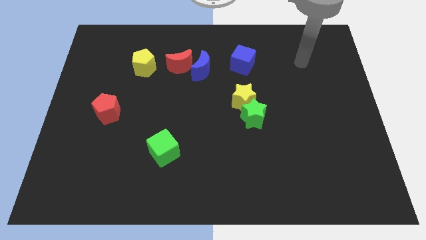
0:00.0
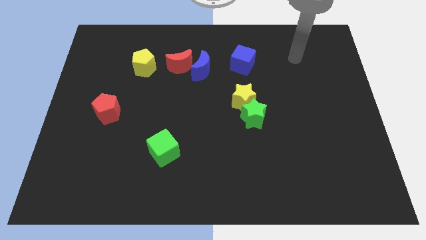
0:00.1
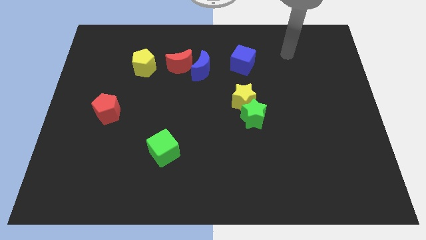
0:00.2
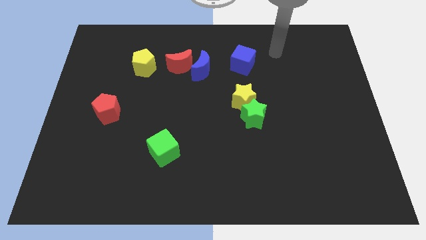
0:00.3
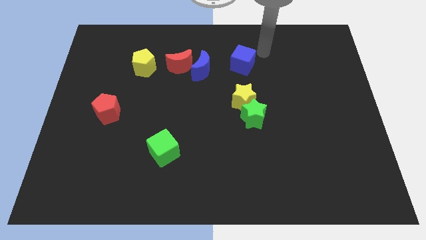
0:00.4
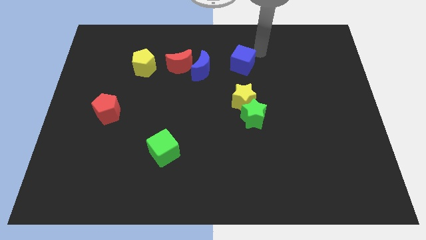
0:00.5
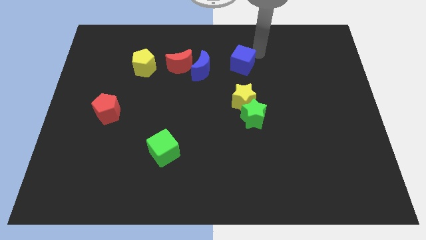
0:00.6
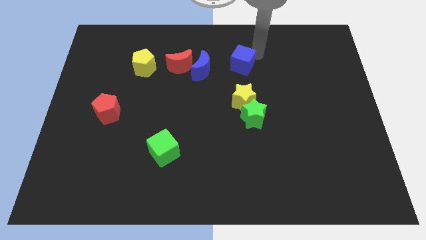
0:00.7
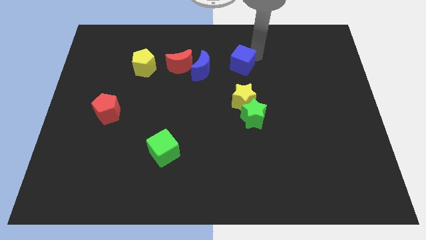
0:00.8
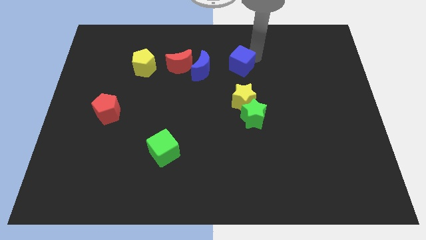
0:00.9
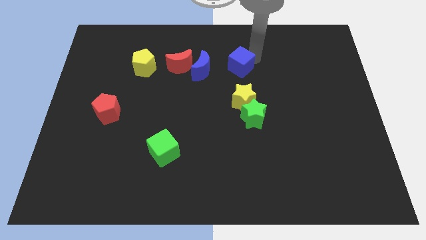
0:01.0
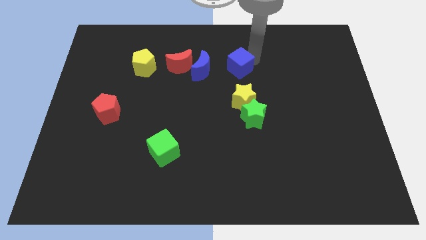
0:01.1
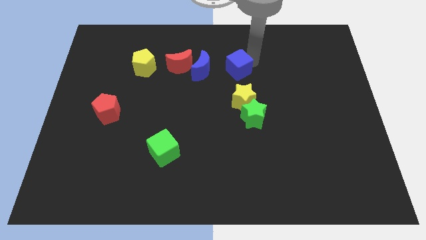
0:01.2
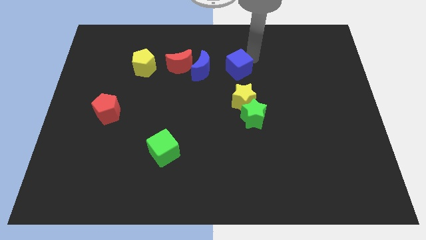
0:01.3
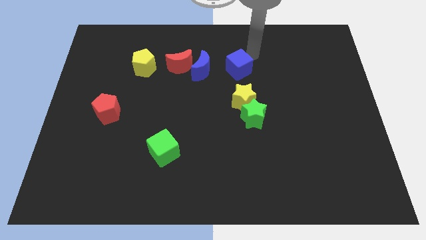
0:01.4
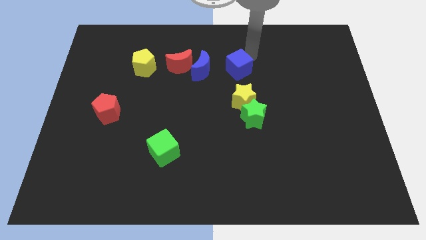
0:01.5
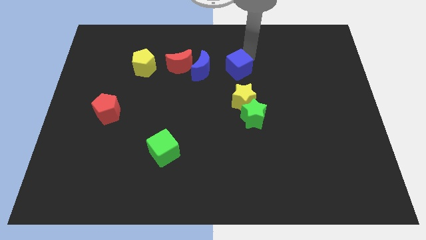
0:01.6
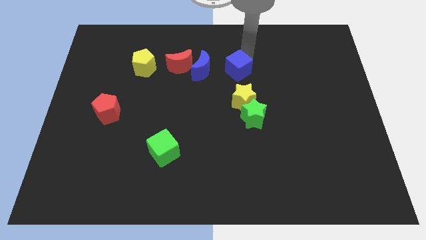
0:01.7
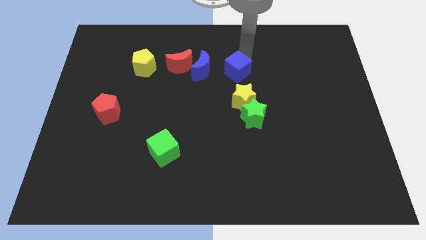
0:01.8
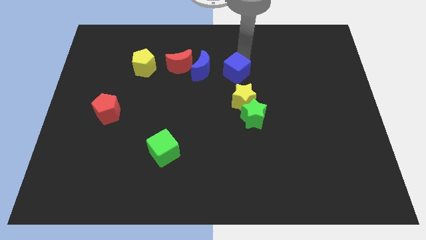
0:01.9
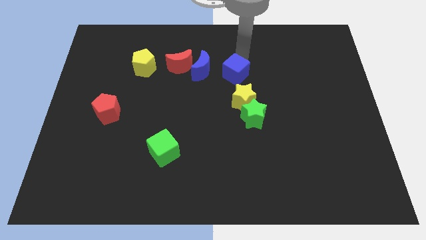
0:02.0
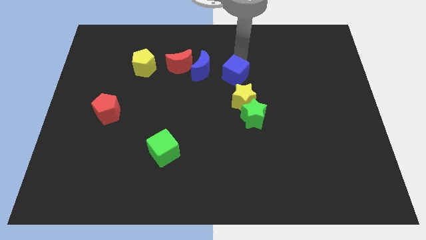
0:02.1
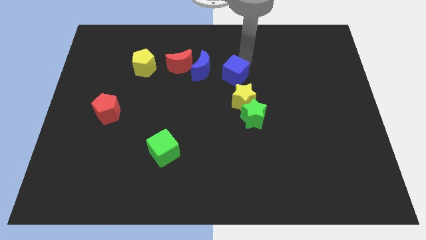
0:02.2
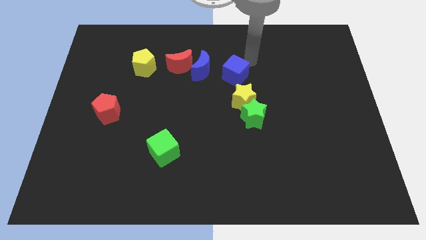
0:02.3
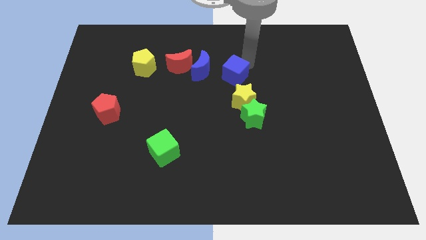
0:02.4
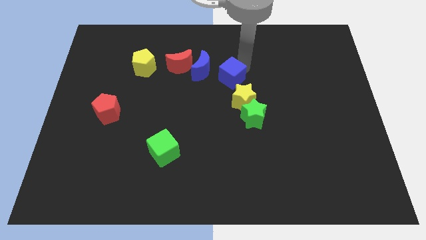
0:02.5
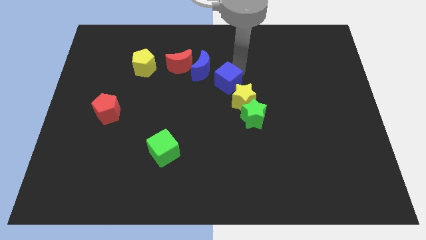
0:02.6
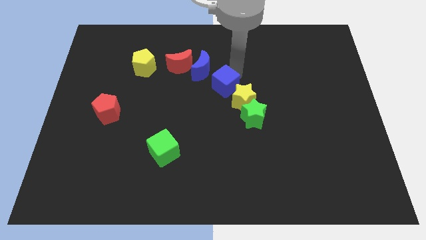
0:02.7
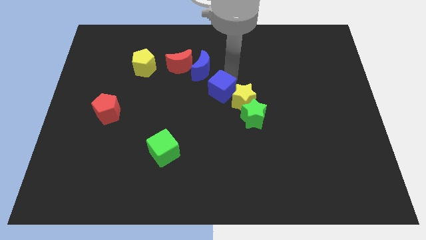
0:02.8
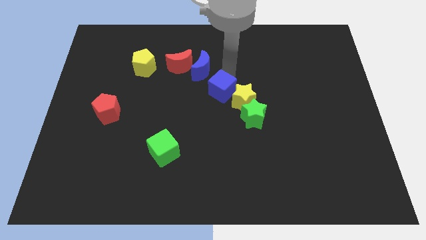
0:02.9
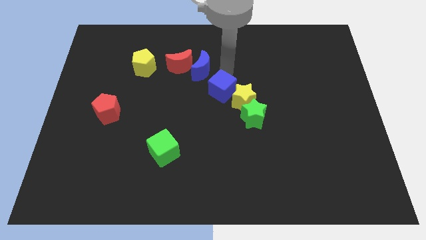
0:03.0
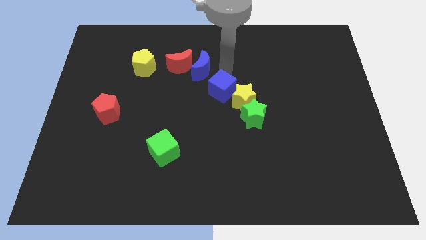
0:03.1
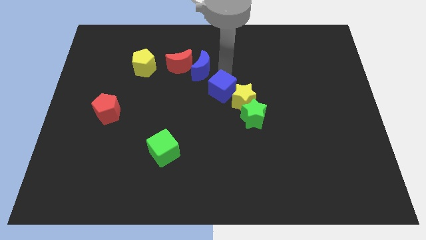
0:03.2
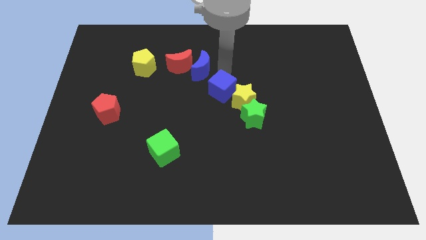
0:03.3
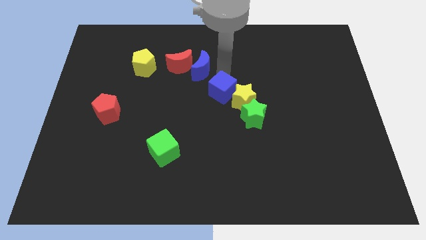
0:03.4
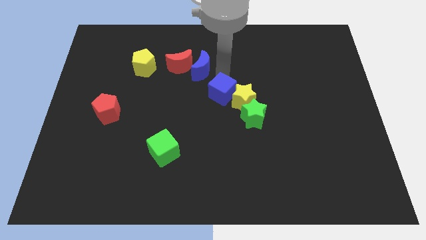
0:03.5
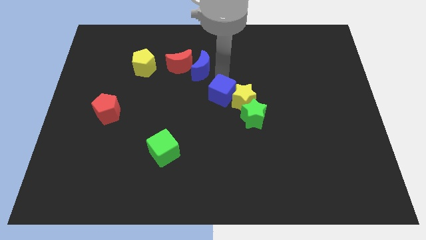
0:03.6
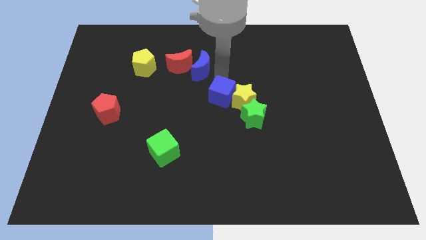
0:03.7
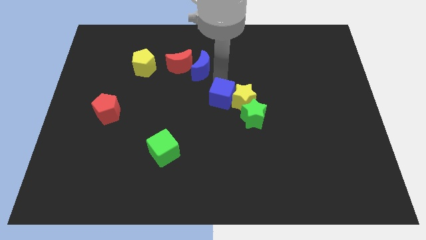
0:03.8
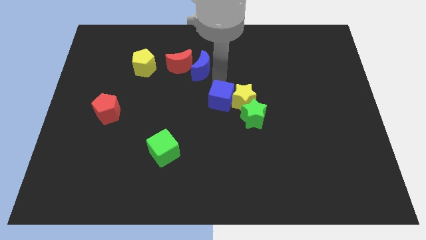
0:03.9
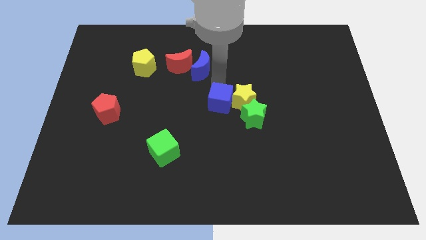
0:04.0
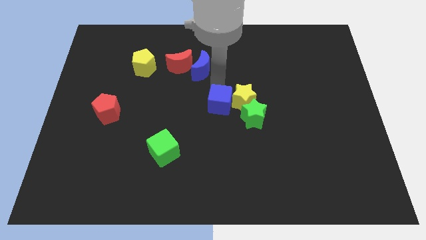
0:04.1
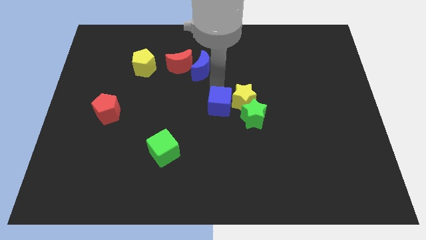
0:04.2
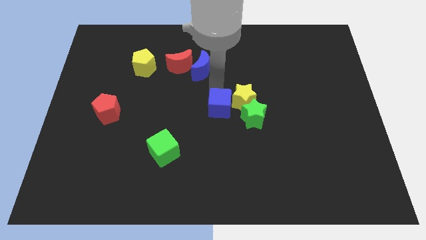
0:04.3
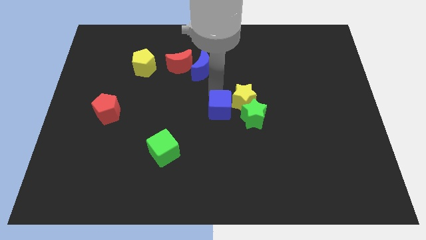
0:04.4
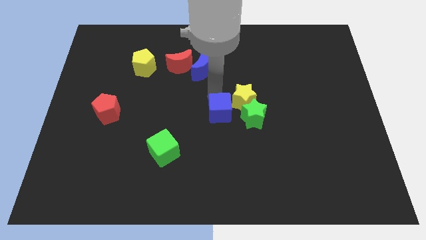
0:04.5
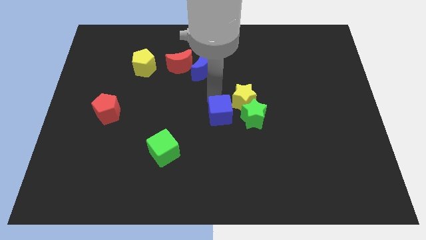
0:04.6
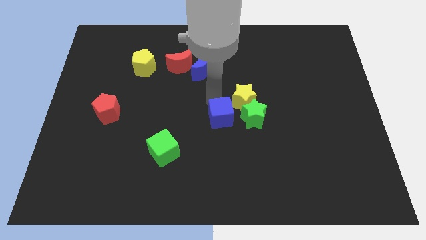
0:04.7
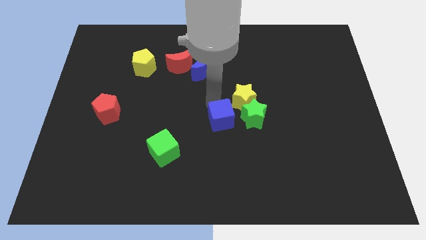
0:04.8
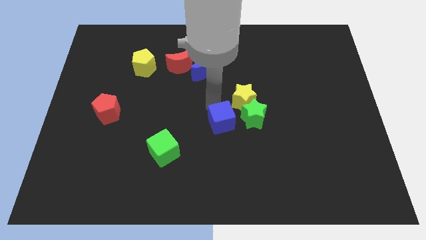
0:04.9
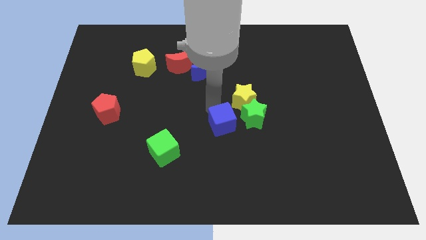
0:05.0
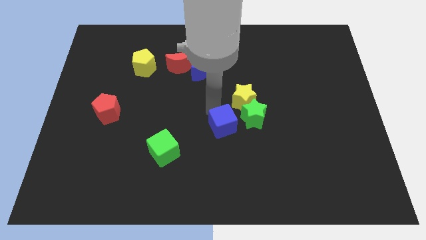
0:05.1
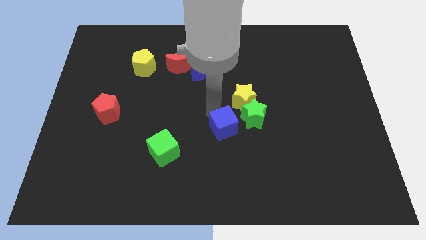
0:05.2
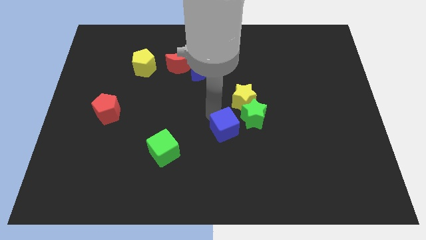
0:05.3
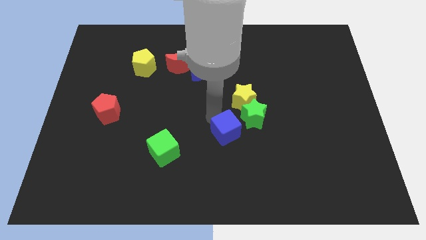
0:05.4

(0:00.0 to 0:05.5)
slide the blue cube downwards

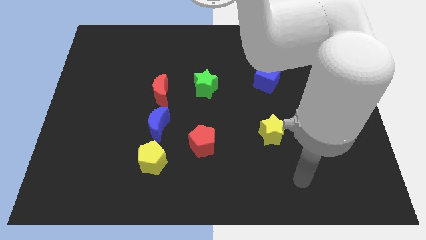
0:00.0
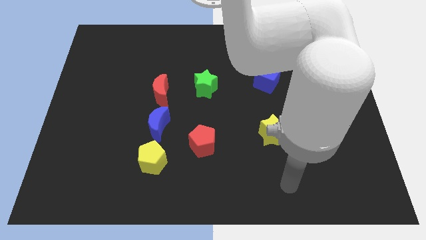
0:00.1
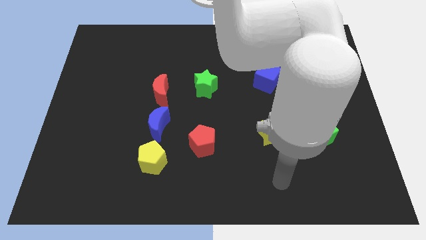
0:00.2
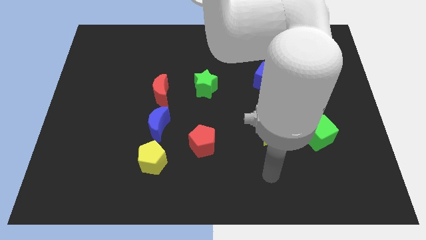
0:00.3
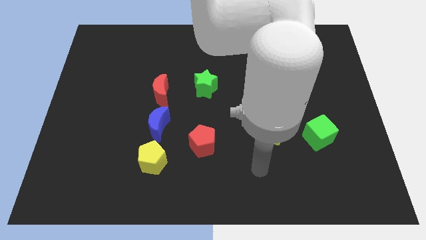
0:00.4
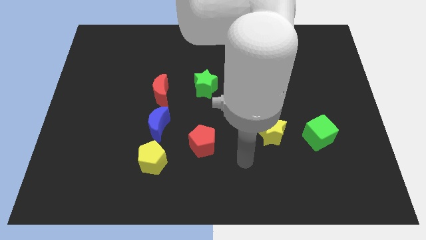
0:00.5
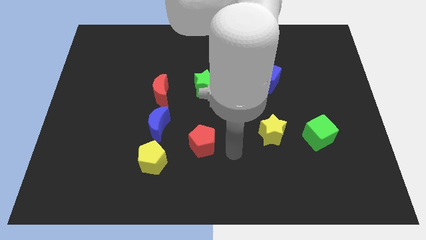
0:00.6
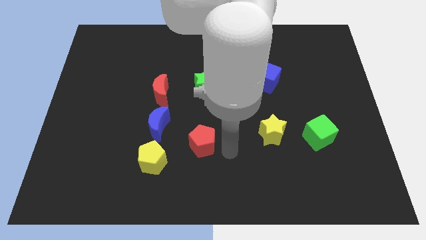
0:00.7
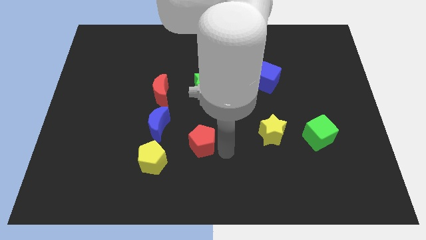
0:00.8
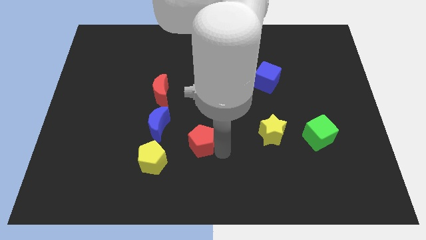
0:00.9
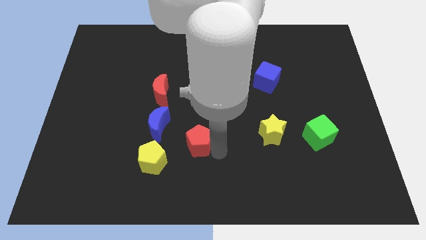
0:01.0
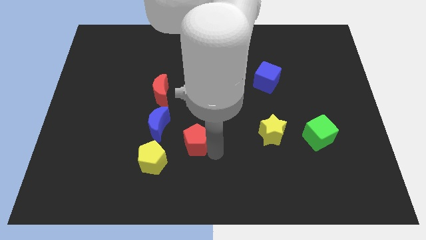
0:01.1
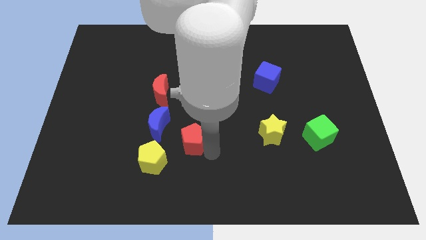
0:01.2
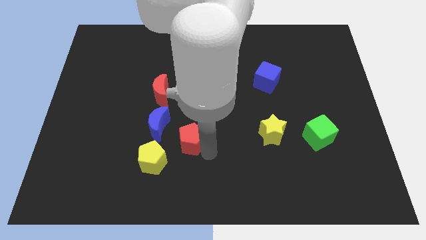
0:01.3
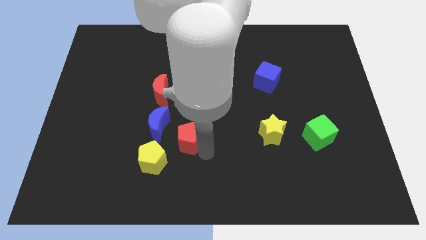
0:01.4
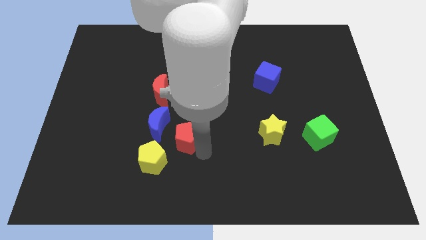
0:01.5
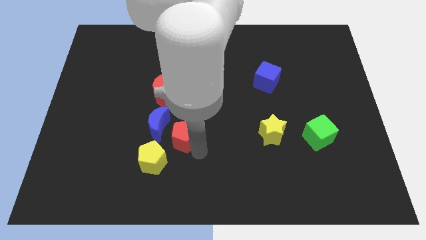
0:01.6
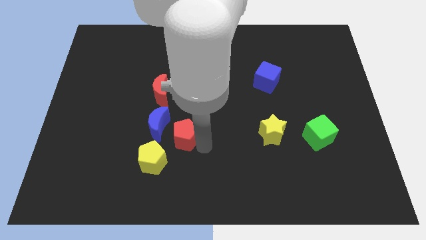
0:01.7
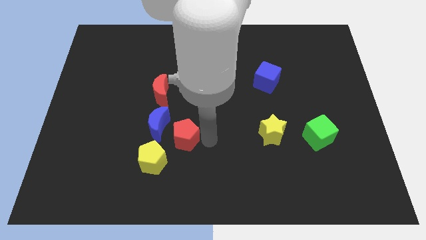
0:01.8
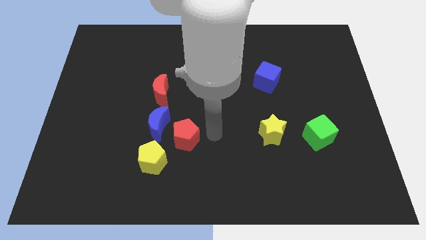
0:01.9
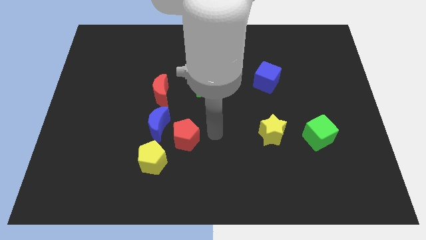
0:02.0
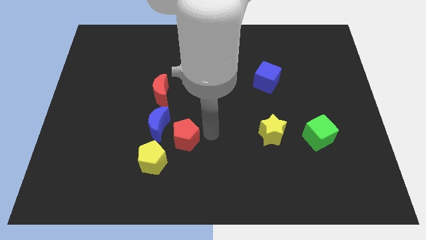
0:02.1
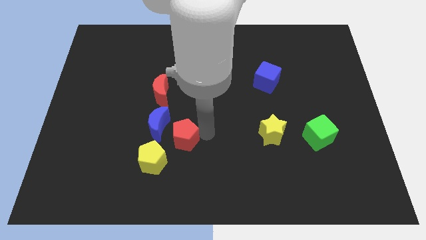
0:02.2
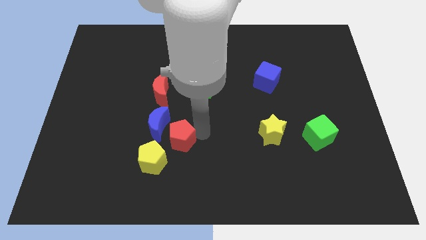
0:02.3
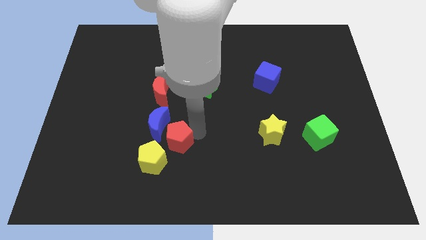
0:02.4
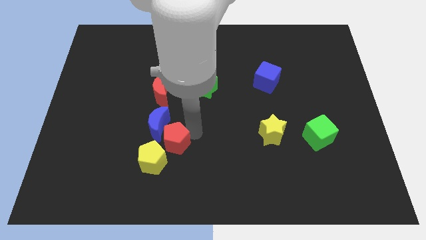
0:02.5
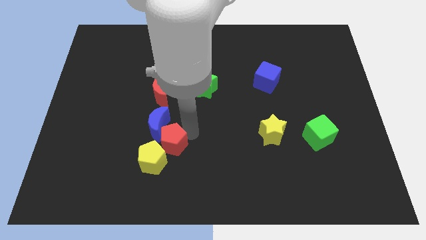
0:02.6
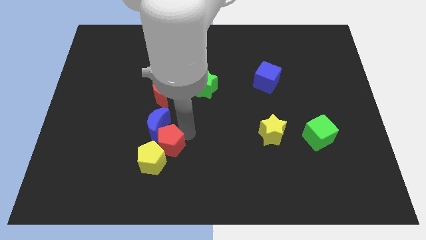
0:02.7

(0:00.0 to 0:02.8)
slightly slide the red pentagon to the left
